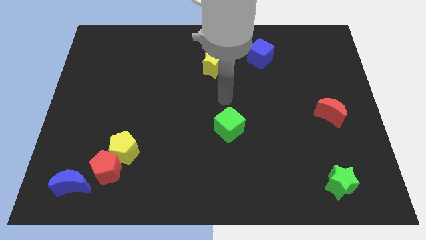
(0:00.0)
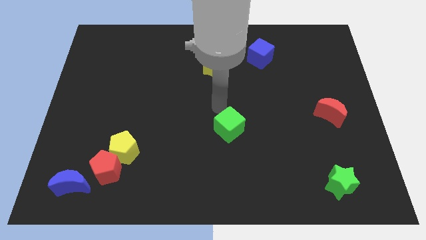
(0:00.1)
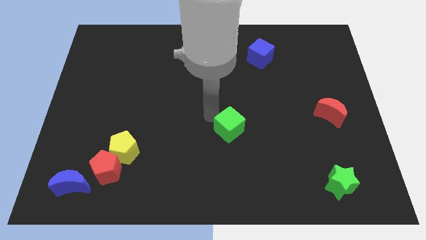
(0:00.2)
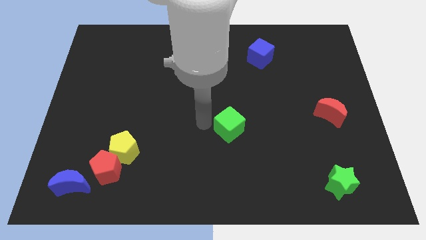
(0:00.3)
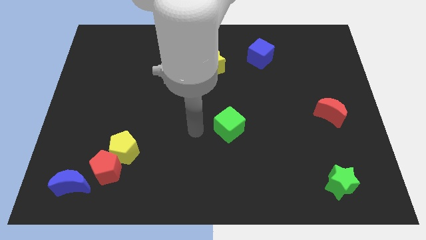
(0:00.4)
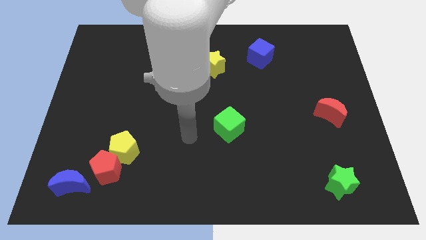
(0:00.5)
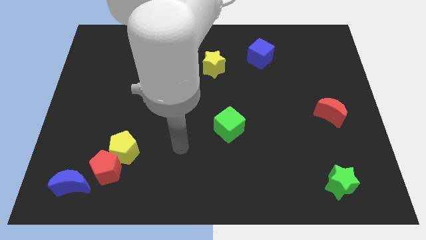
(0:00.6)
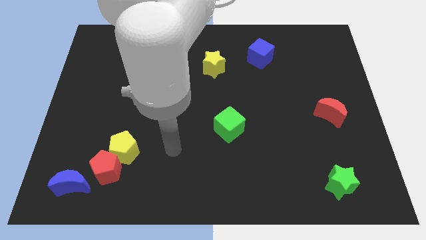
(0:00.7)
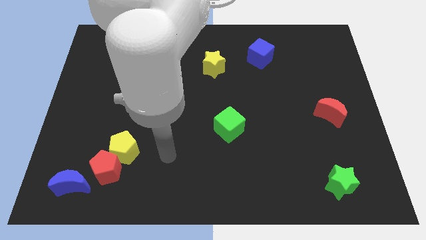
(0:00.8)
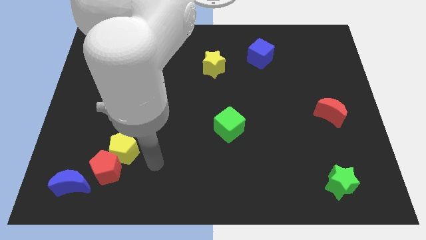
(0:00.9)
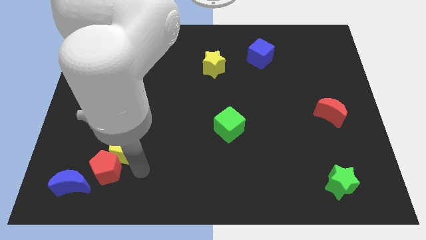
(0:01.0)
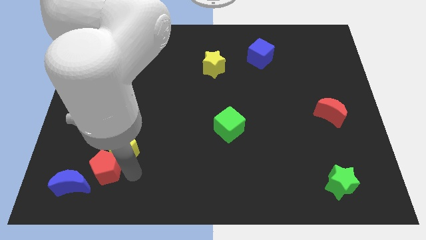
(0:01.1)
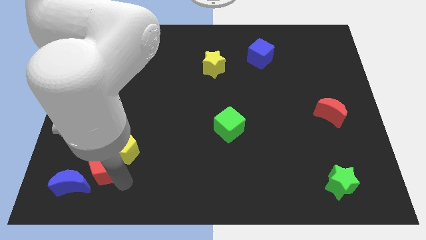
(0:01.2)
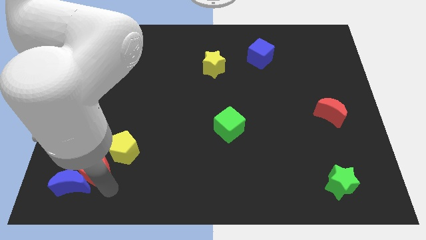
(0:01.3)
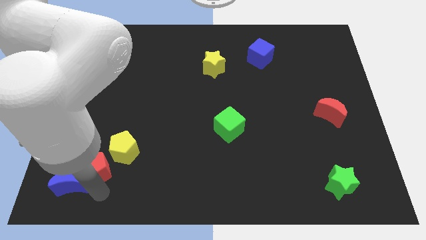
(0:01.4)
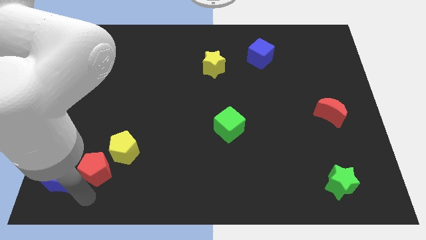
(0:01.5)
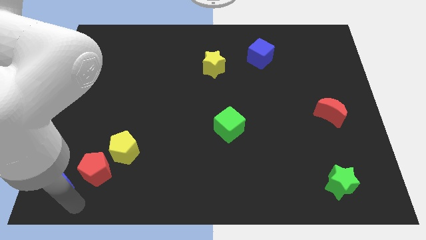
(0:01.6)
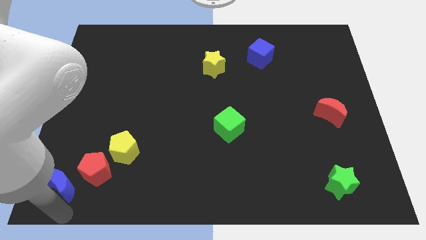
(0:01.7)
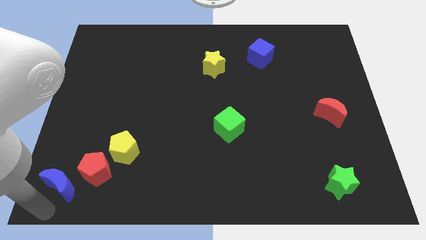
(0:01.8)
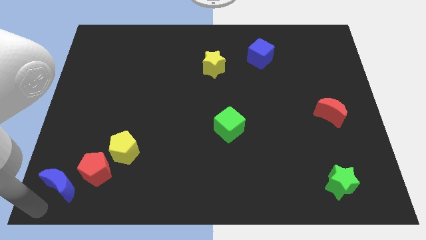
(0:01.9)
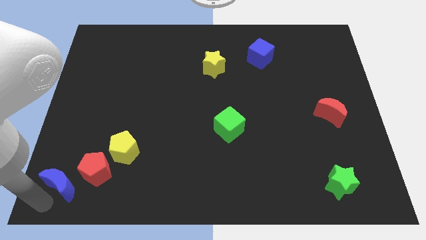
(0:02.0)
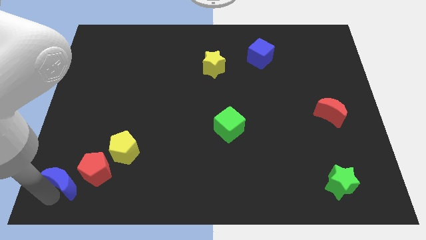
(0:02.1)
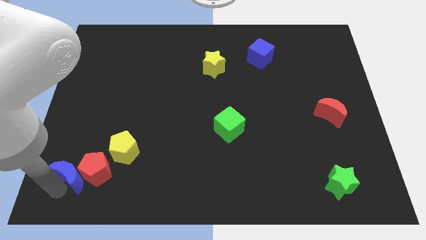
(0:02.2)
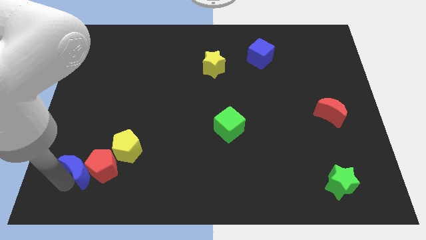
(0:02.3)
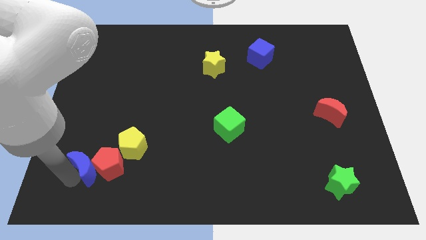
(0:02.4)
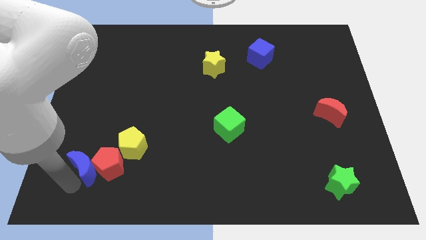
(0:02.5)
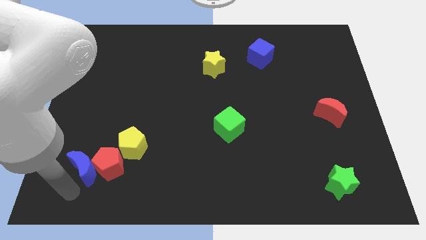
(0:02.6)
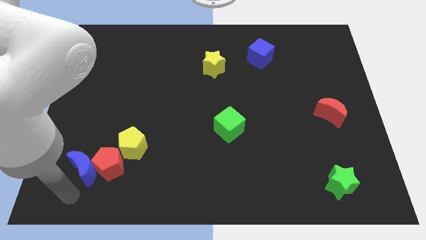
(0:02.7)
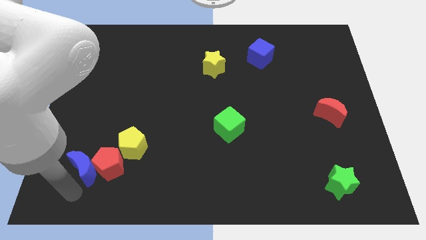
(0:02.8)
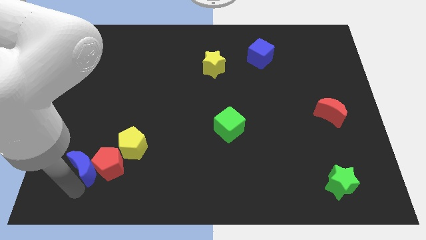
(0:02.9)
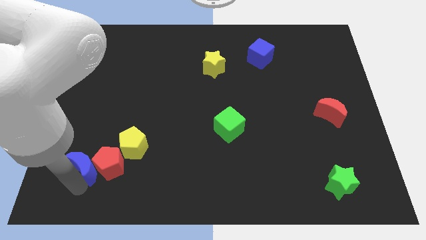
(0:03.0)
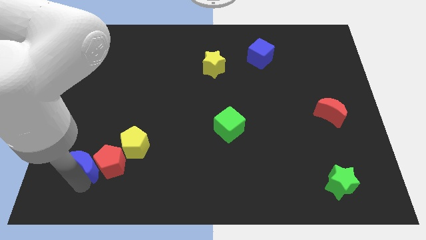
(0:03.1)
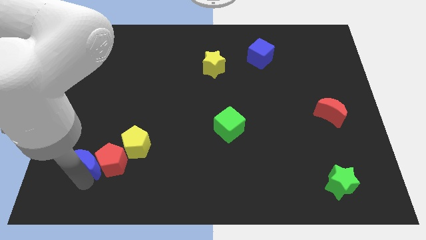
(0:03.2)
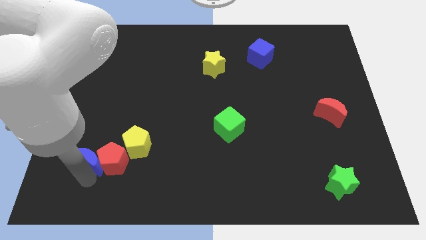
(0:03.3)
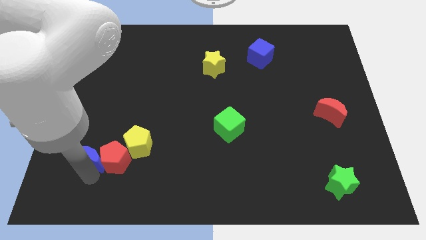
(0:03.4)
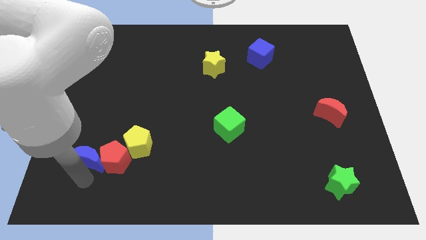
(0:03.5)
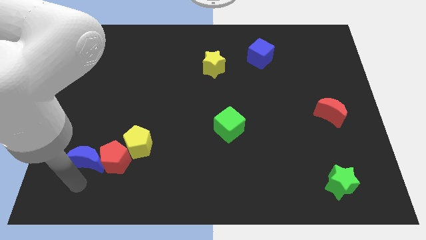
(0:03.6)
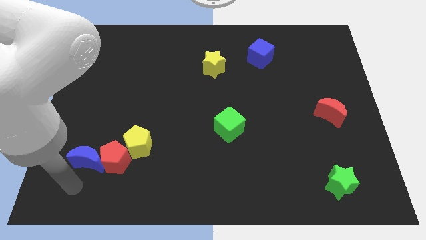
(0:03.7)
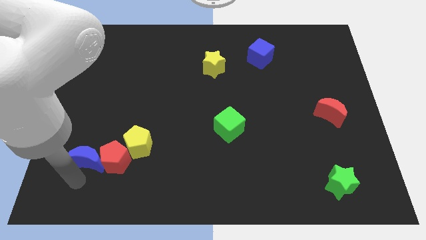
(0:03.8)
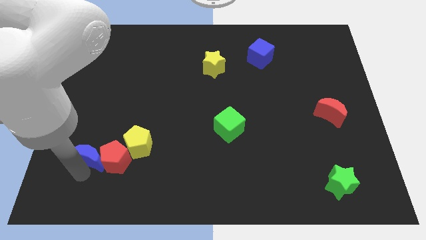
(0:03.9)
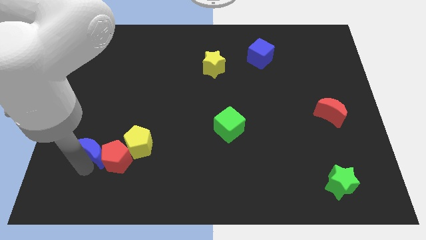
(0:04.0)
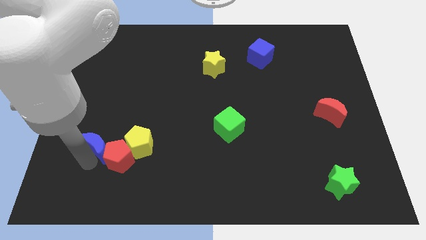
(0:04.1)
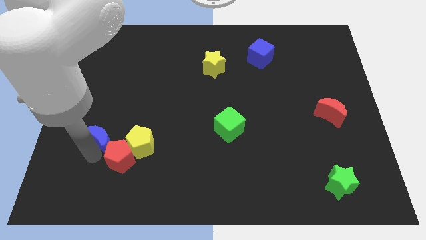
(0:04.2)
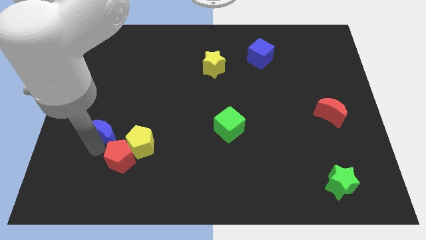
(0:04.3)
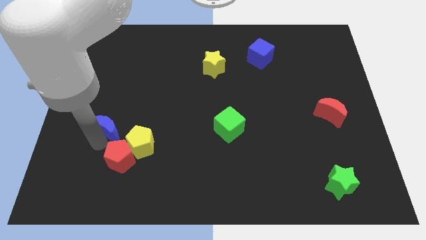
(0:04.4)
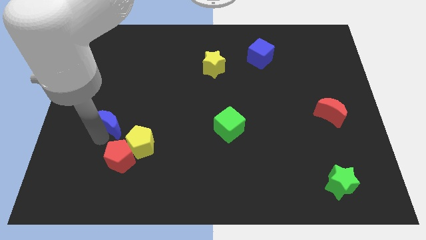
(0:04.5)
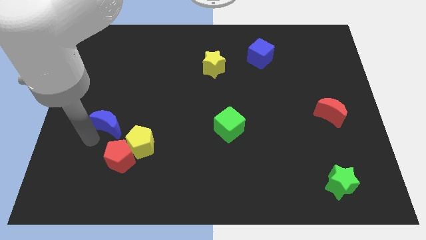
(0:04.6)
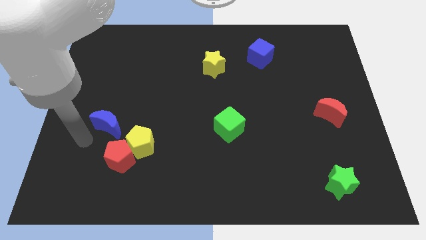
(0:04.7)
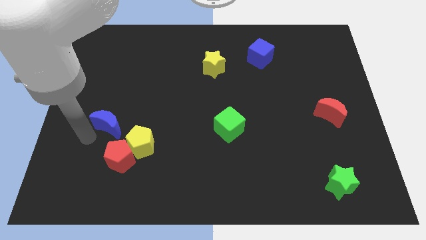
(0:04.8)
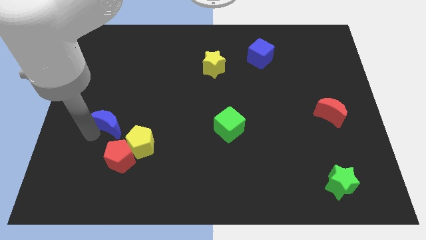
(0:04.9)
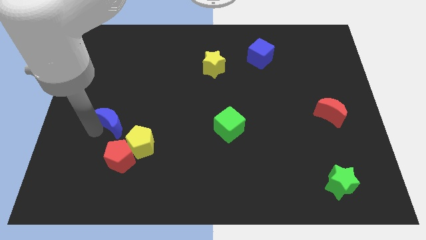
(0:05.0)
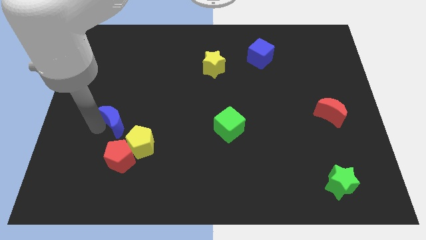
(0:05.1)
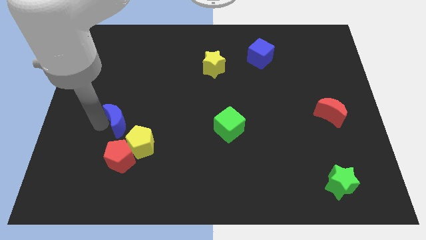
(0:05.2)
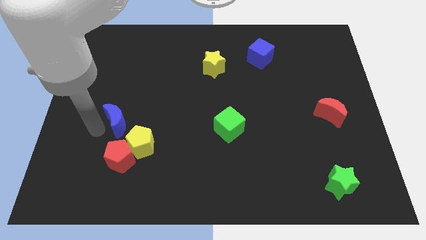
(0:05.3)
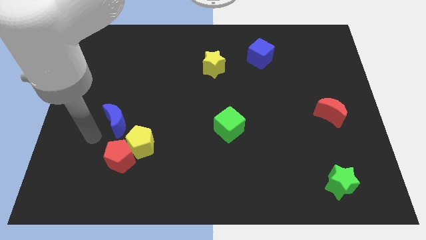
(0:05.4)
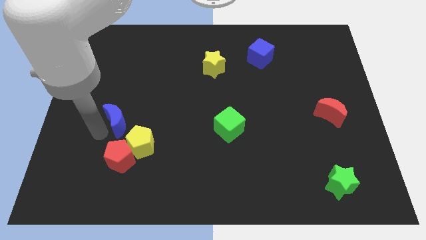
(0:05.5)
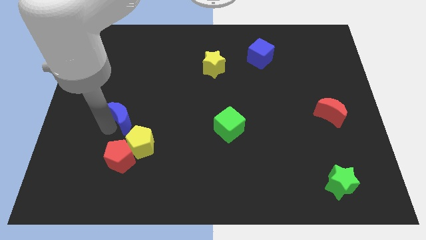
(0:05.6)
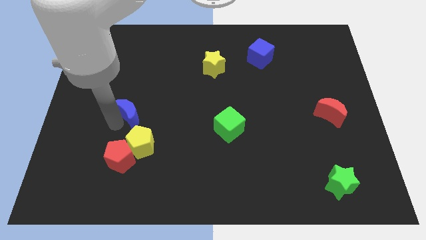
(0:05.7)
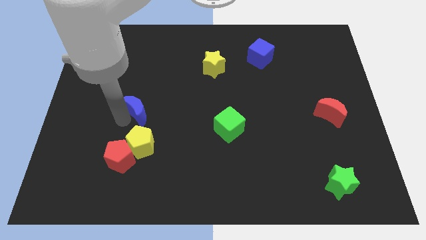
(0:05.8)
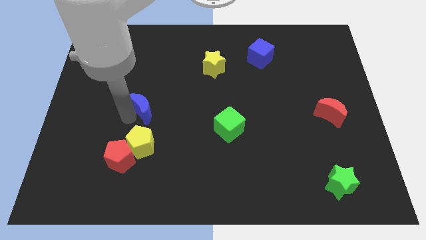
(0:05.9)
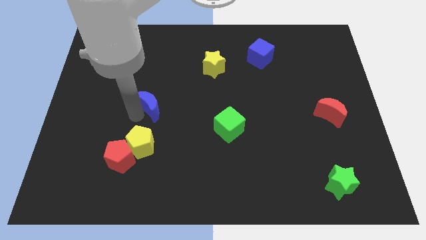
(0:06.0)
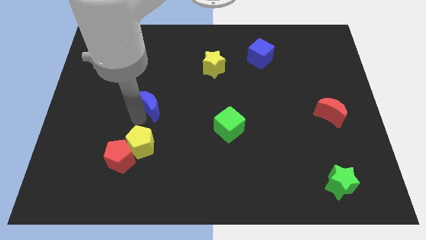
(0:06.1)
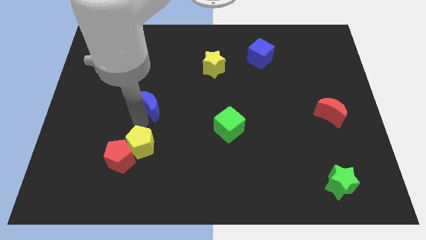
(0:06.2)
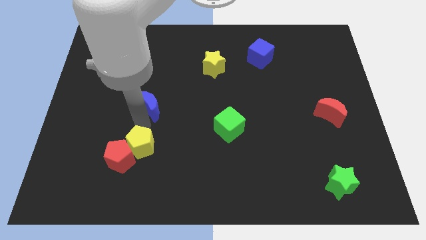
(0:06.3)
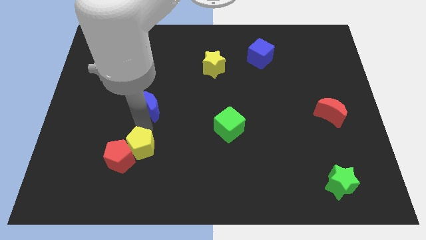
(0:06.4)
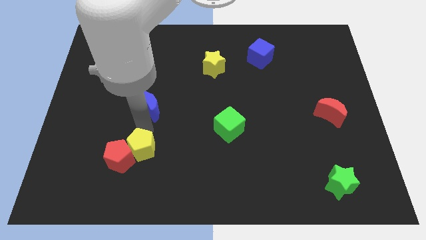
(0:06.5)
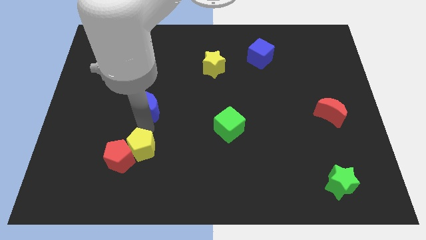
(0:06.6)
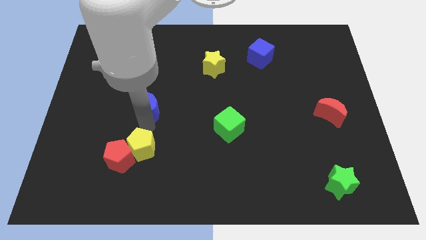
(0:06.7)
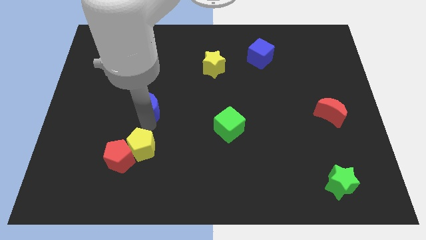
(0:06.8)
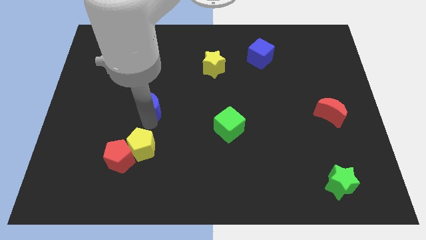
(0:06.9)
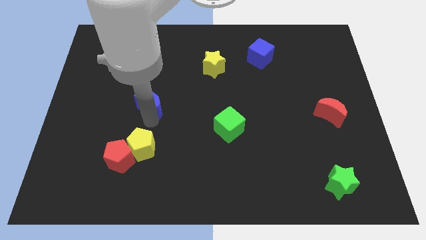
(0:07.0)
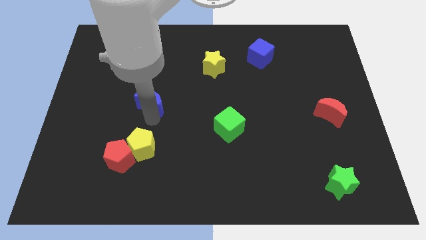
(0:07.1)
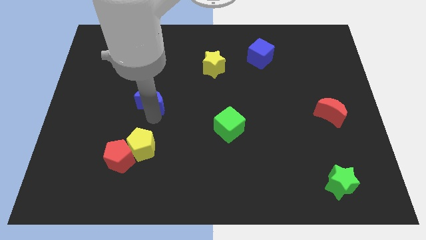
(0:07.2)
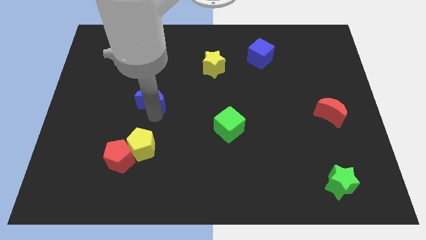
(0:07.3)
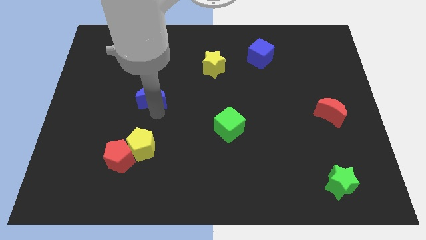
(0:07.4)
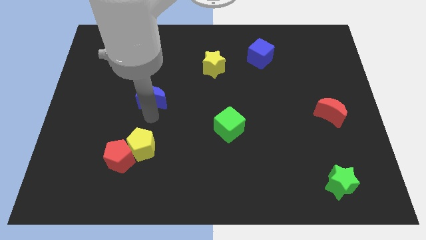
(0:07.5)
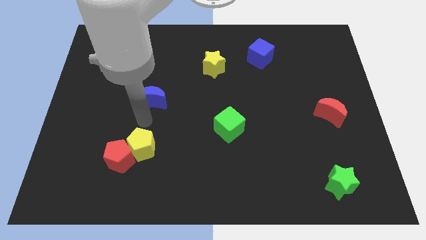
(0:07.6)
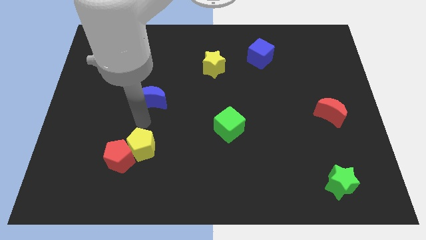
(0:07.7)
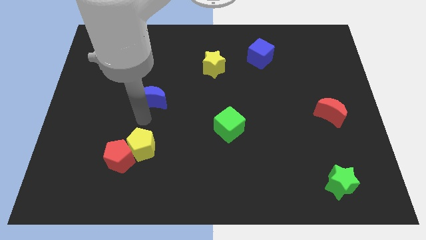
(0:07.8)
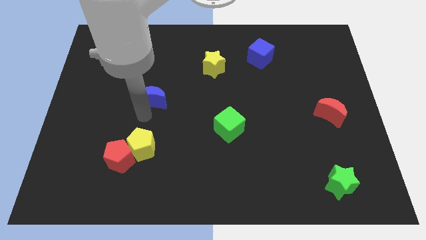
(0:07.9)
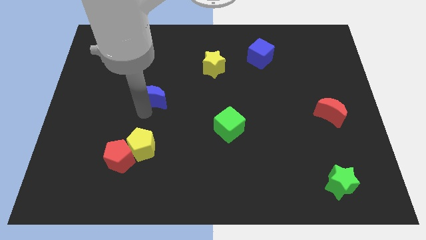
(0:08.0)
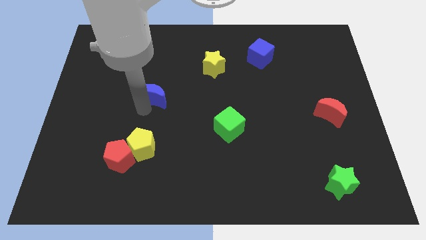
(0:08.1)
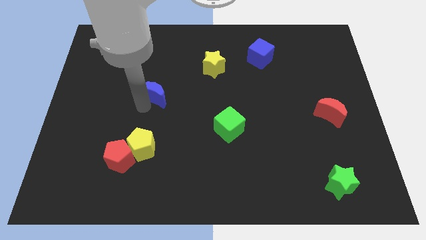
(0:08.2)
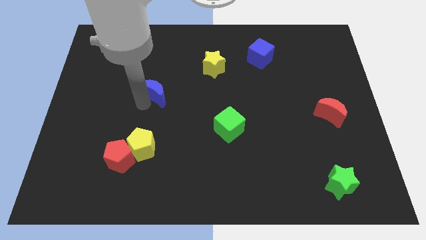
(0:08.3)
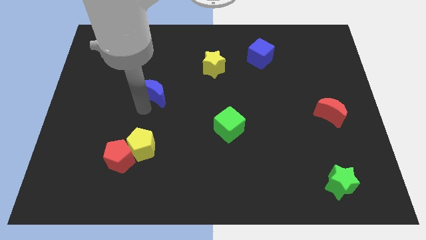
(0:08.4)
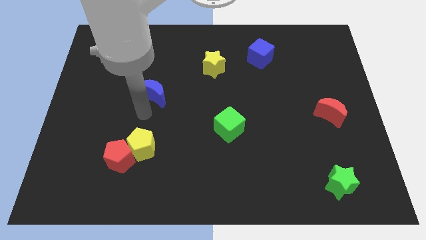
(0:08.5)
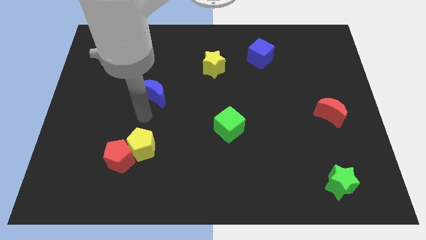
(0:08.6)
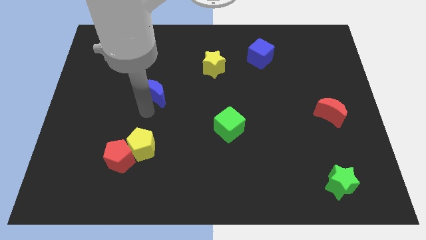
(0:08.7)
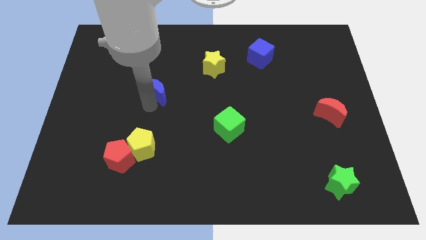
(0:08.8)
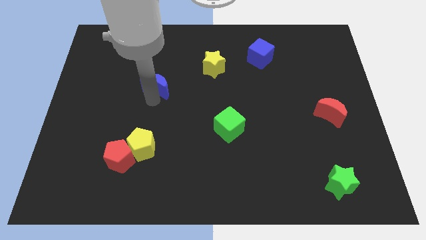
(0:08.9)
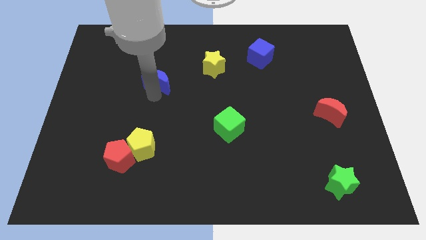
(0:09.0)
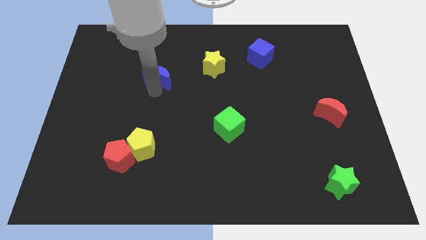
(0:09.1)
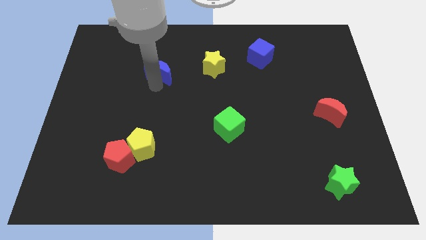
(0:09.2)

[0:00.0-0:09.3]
slide the blue moon just left of the yellow star
